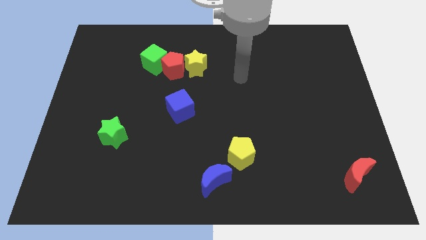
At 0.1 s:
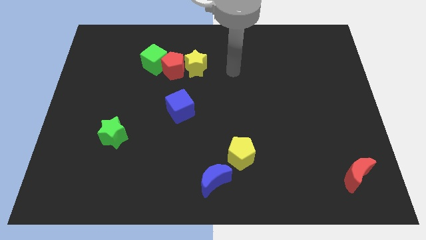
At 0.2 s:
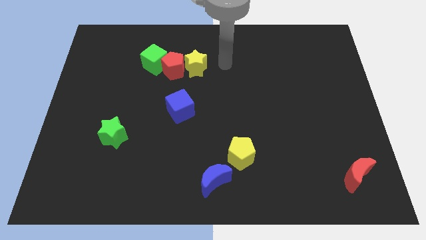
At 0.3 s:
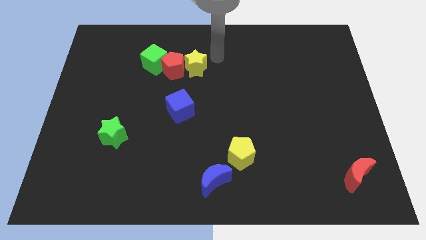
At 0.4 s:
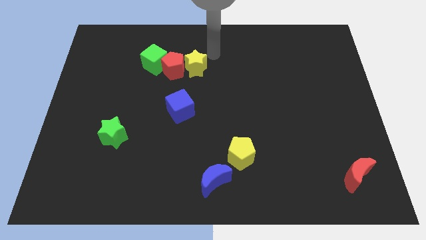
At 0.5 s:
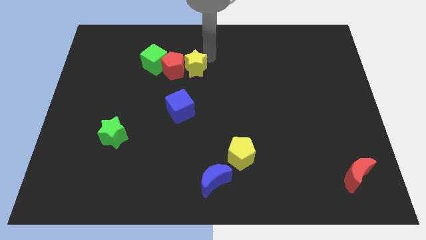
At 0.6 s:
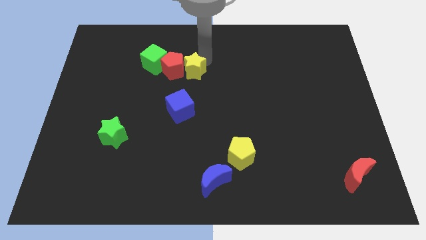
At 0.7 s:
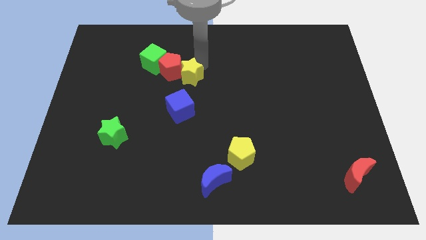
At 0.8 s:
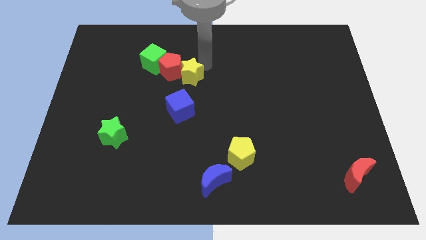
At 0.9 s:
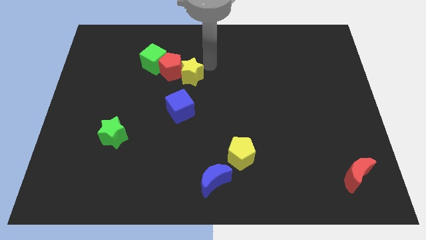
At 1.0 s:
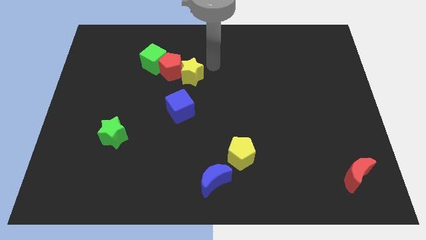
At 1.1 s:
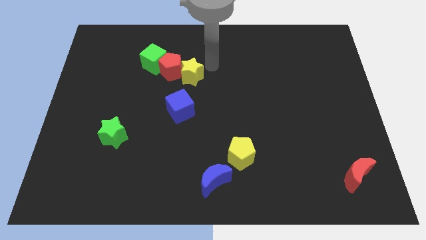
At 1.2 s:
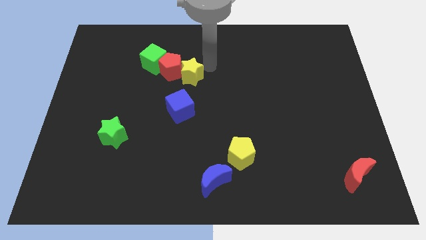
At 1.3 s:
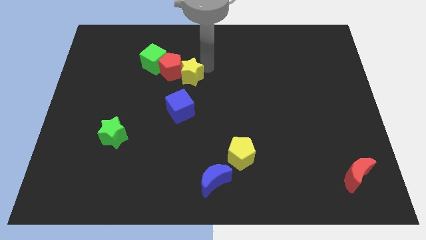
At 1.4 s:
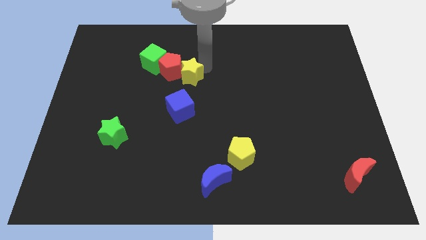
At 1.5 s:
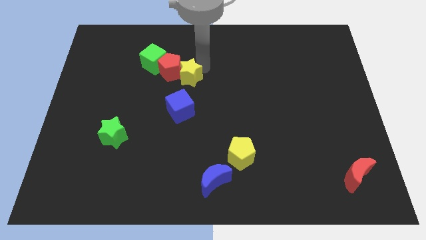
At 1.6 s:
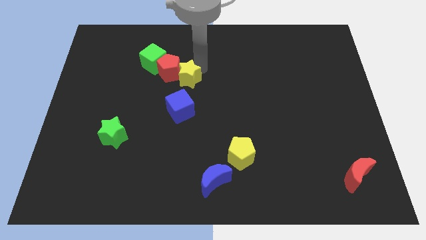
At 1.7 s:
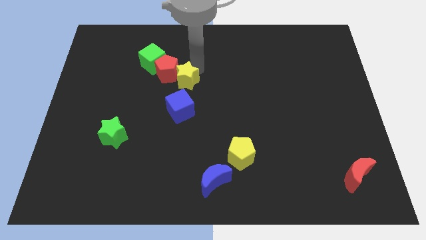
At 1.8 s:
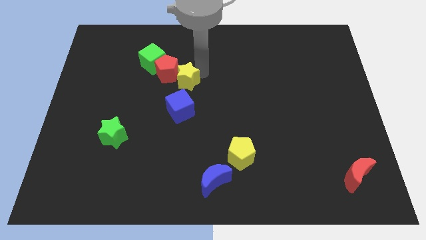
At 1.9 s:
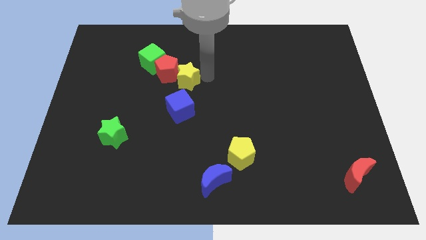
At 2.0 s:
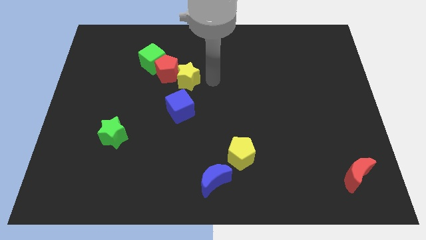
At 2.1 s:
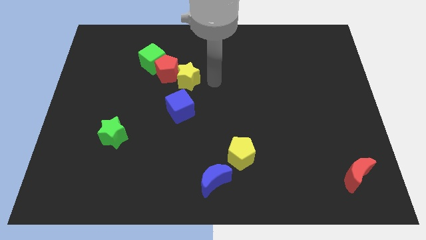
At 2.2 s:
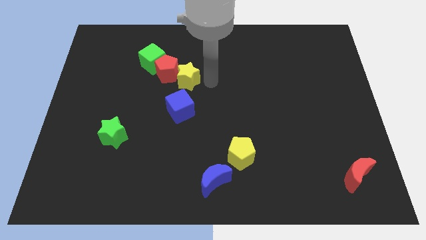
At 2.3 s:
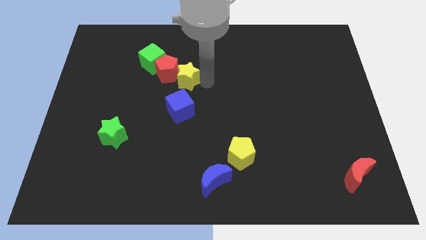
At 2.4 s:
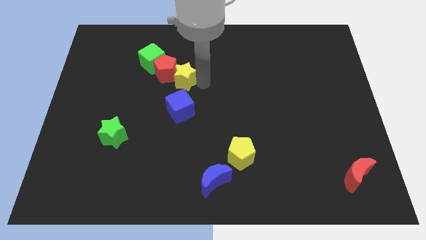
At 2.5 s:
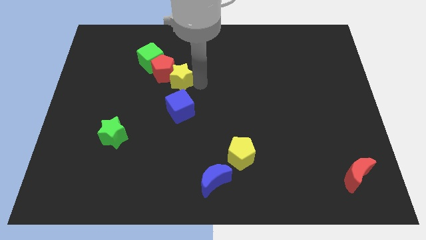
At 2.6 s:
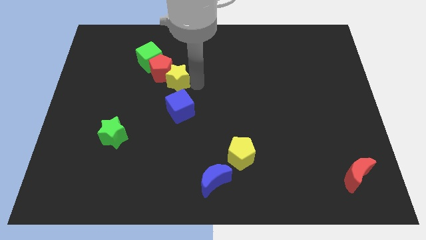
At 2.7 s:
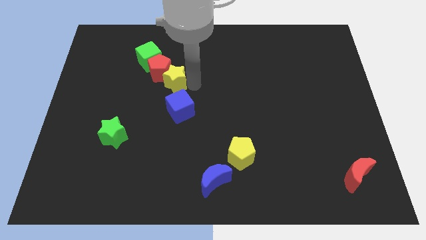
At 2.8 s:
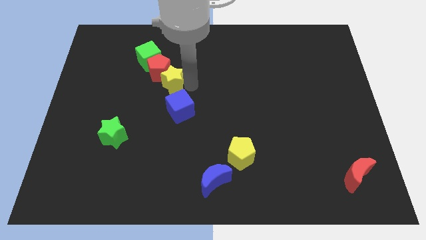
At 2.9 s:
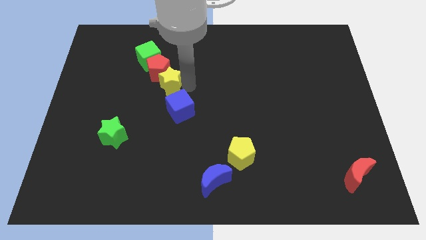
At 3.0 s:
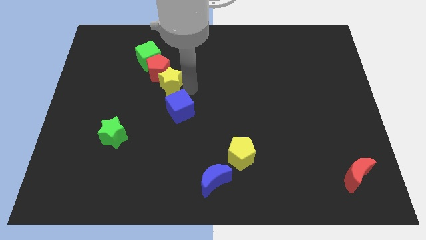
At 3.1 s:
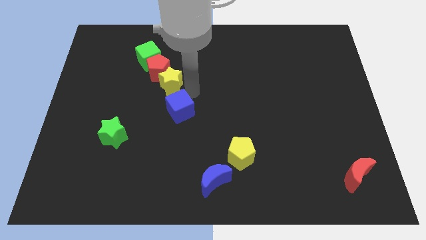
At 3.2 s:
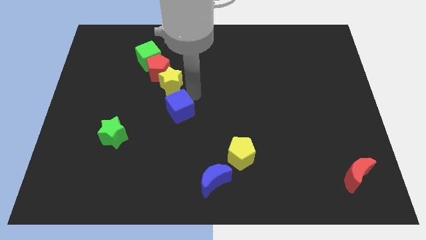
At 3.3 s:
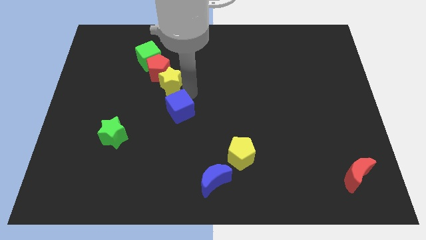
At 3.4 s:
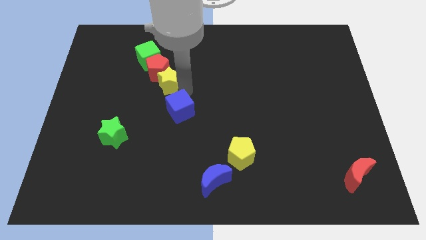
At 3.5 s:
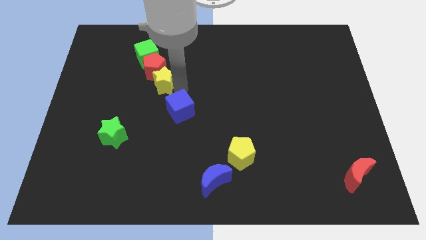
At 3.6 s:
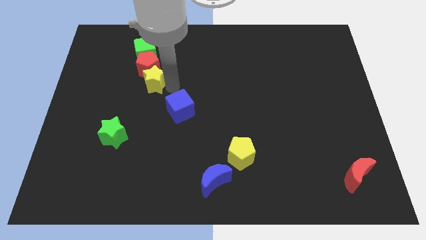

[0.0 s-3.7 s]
slightly push the yellow star to the left

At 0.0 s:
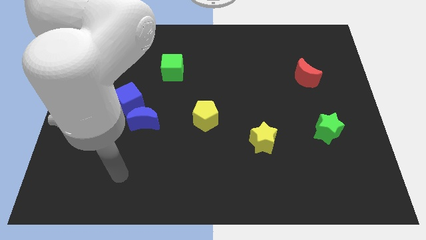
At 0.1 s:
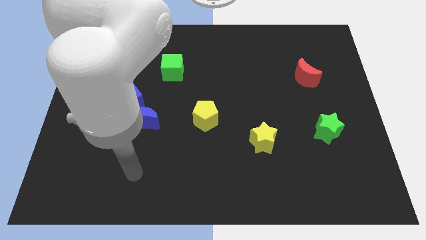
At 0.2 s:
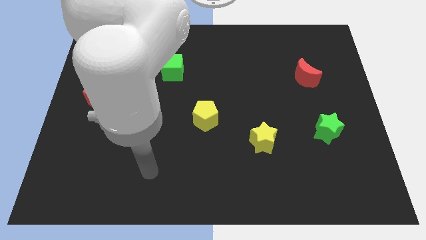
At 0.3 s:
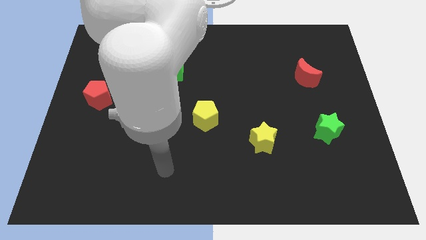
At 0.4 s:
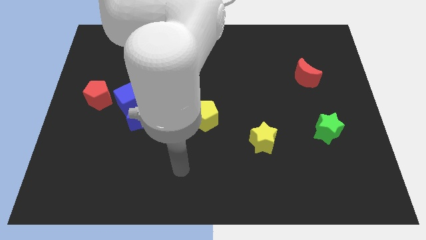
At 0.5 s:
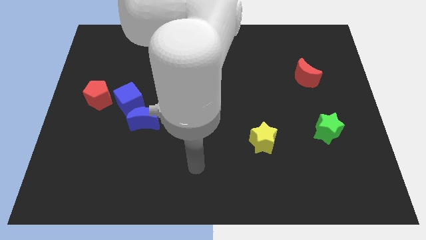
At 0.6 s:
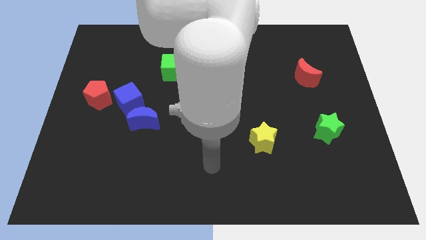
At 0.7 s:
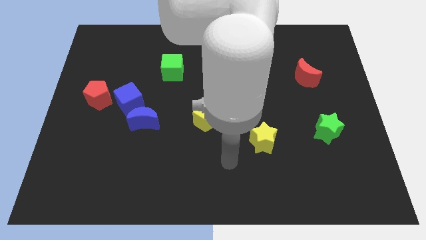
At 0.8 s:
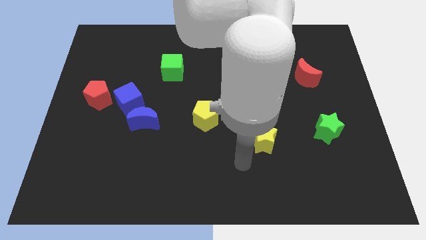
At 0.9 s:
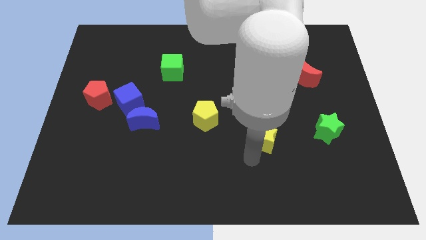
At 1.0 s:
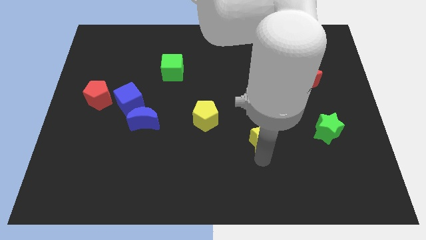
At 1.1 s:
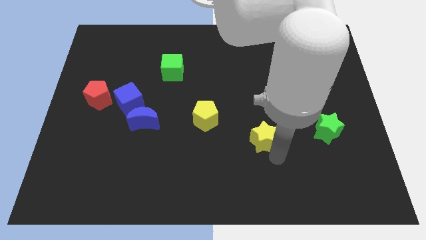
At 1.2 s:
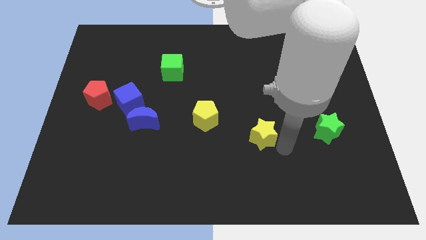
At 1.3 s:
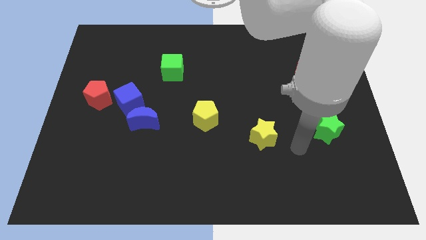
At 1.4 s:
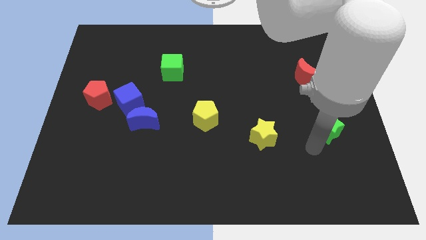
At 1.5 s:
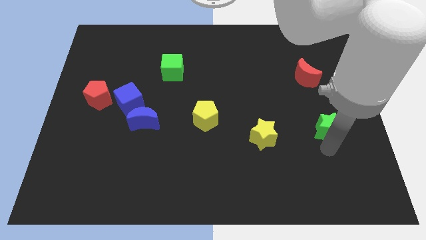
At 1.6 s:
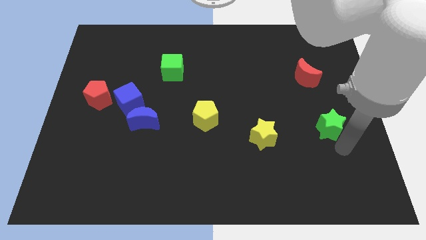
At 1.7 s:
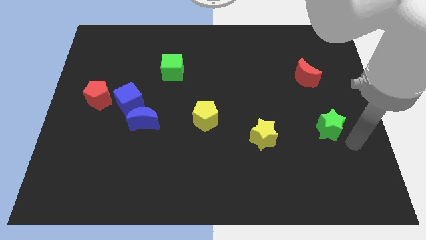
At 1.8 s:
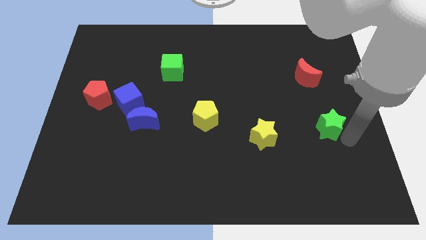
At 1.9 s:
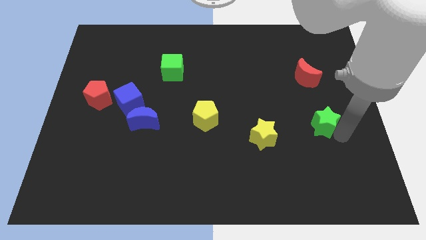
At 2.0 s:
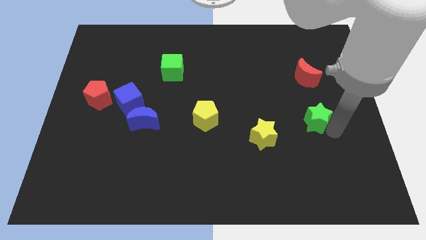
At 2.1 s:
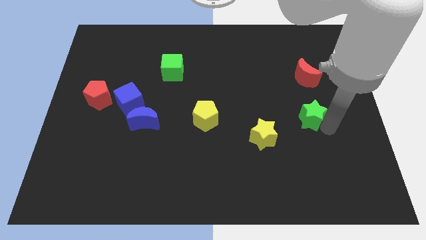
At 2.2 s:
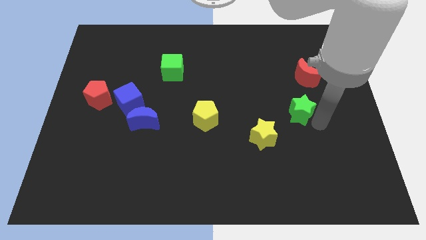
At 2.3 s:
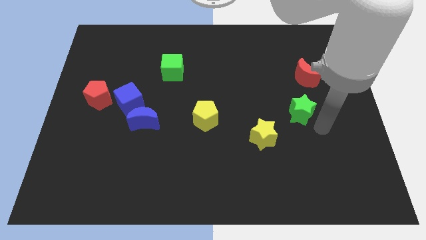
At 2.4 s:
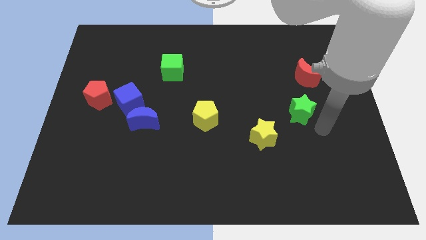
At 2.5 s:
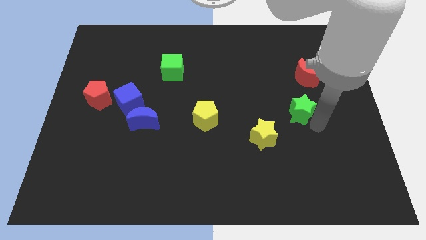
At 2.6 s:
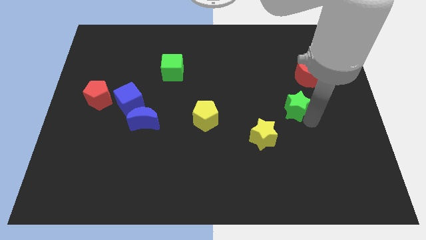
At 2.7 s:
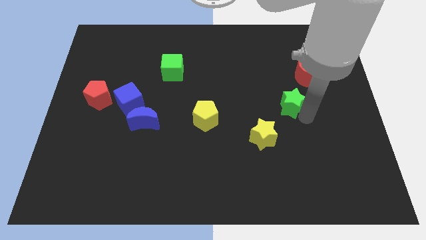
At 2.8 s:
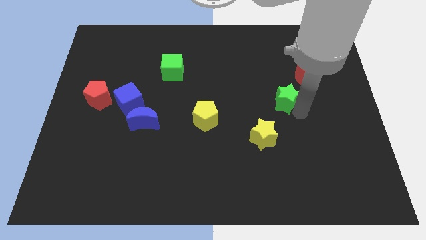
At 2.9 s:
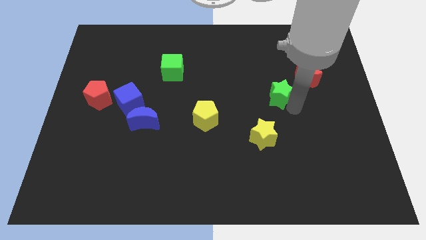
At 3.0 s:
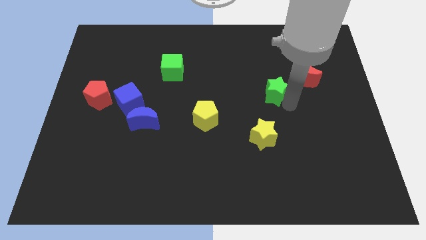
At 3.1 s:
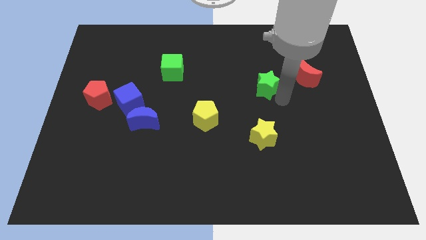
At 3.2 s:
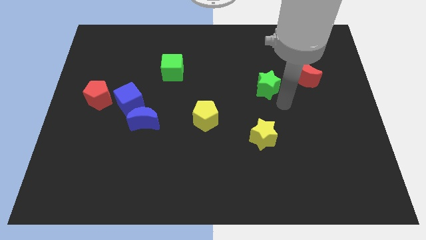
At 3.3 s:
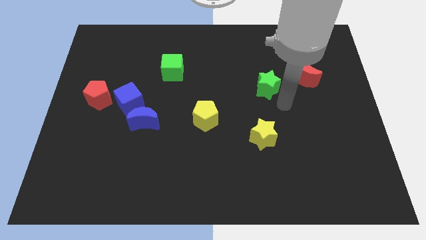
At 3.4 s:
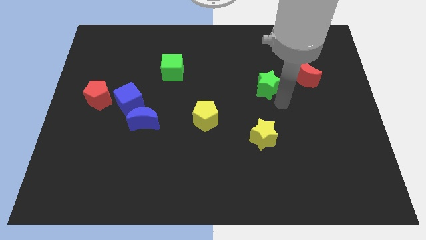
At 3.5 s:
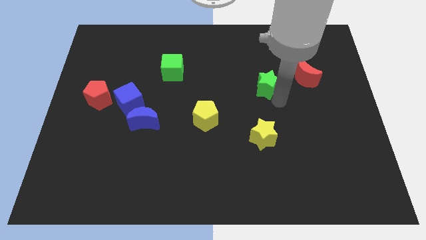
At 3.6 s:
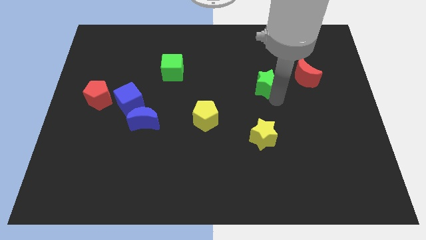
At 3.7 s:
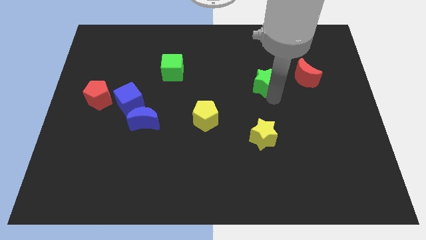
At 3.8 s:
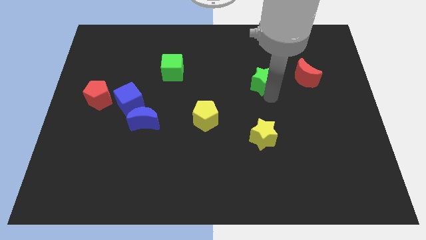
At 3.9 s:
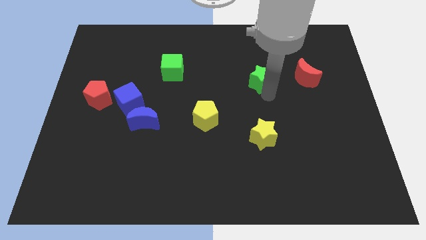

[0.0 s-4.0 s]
move the green star up and left
